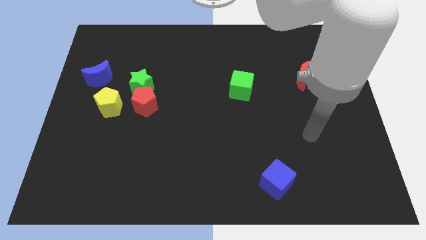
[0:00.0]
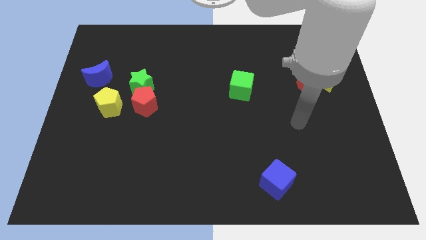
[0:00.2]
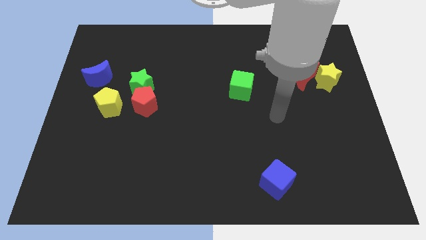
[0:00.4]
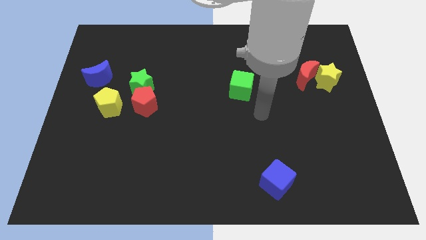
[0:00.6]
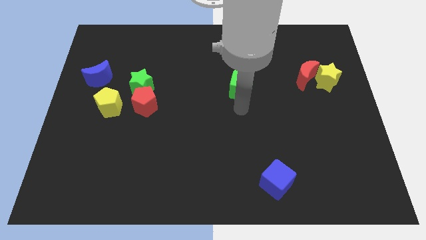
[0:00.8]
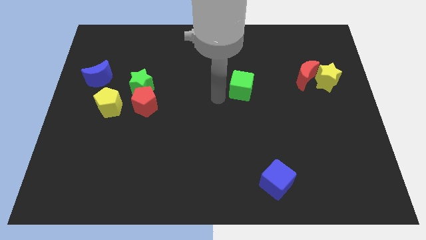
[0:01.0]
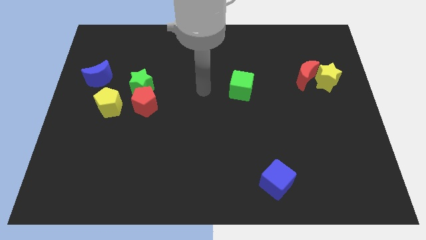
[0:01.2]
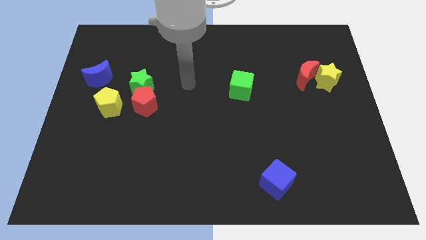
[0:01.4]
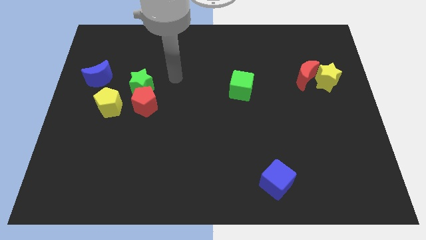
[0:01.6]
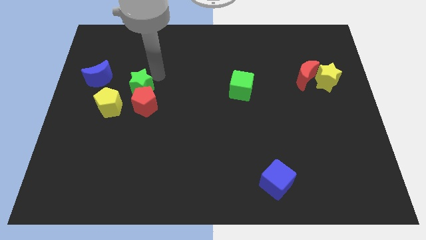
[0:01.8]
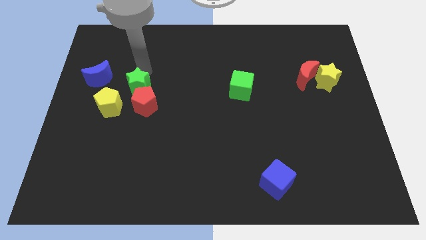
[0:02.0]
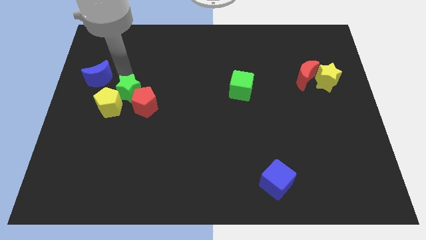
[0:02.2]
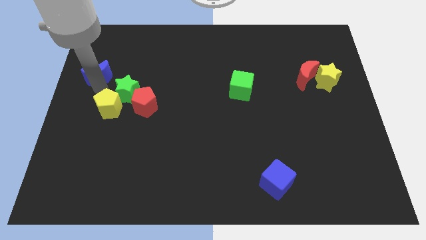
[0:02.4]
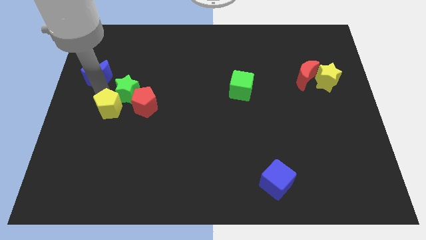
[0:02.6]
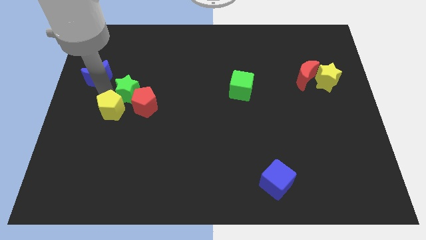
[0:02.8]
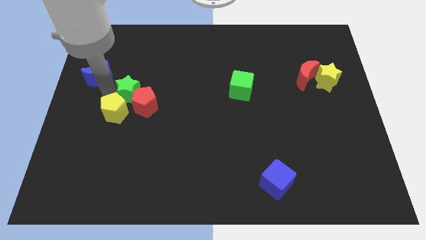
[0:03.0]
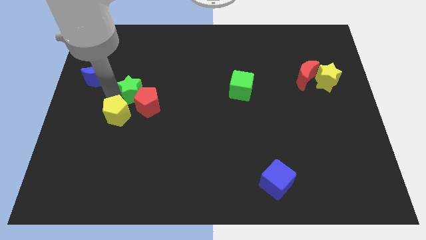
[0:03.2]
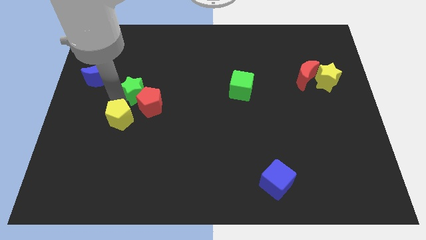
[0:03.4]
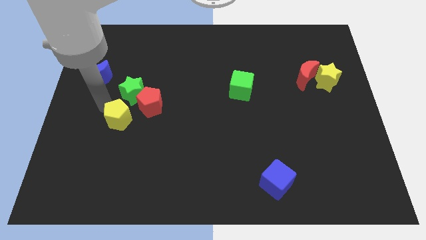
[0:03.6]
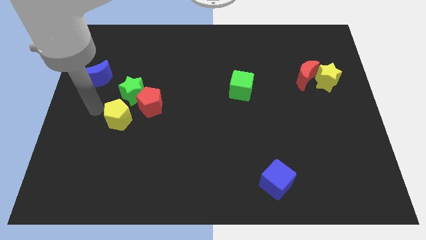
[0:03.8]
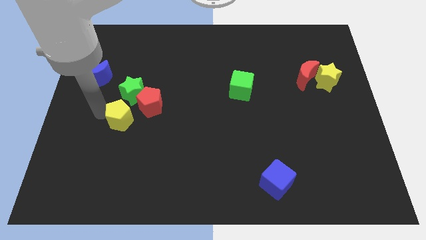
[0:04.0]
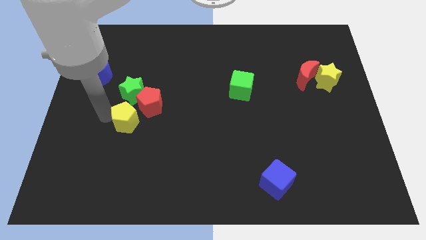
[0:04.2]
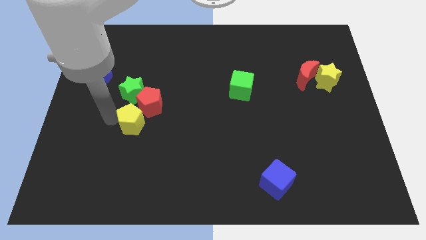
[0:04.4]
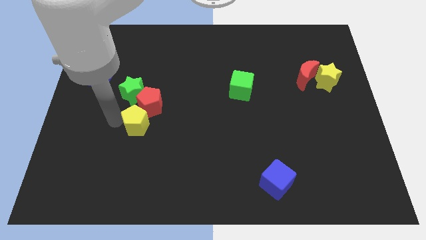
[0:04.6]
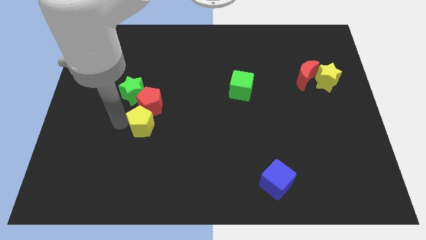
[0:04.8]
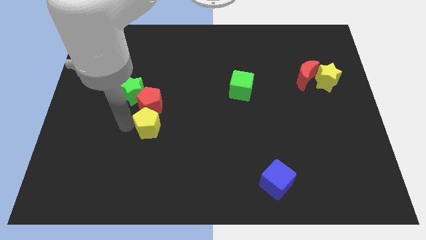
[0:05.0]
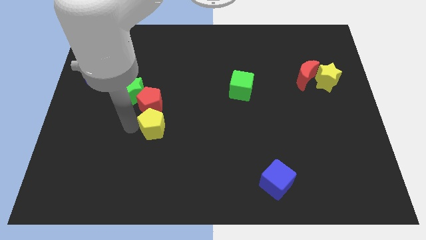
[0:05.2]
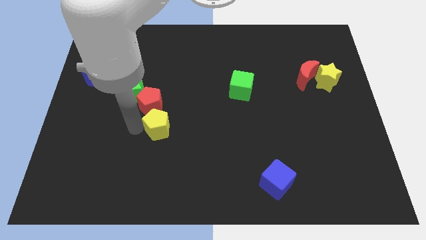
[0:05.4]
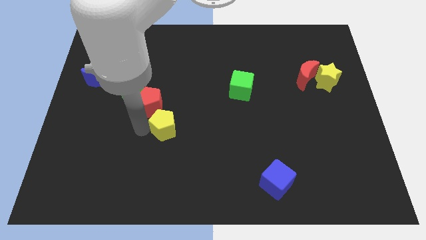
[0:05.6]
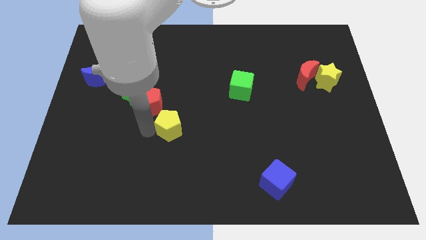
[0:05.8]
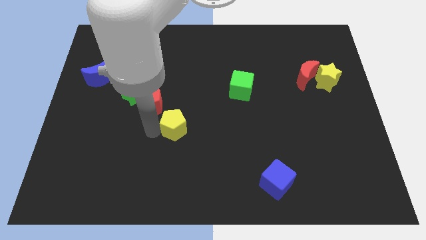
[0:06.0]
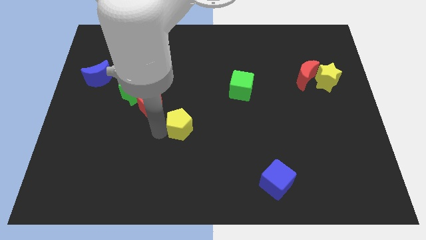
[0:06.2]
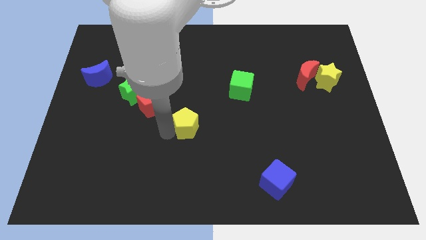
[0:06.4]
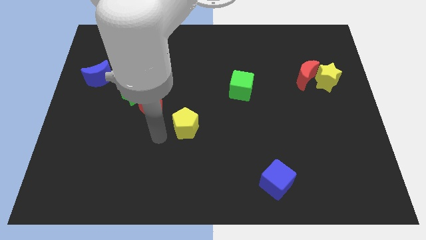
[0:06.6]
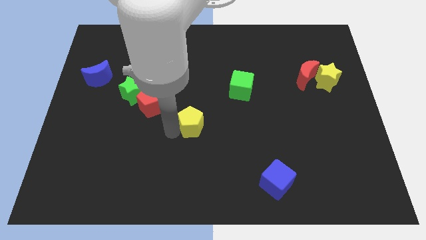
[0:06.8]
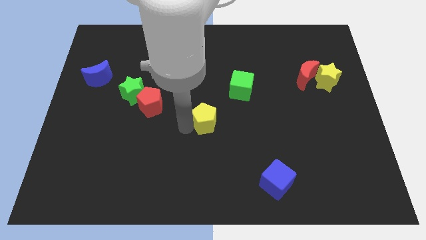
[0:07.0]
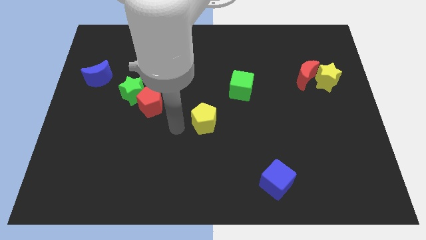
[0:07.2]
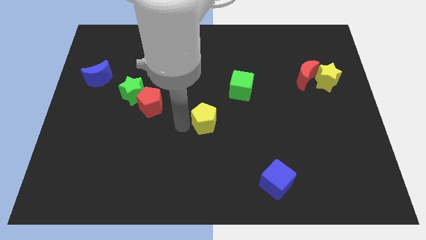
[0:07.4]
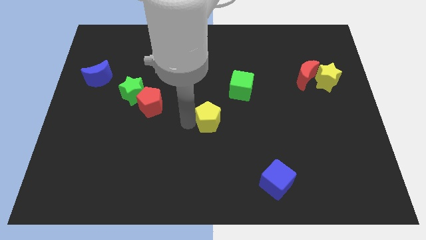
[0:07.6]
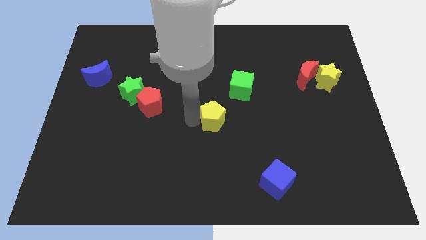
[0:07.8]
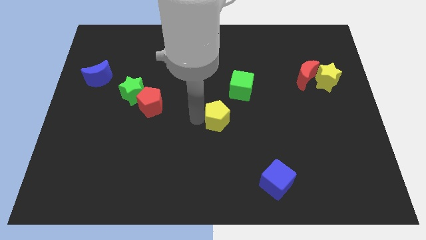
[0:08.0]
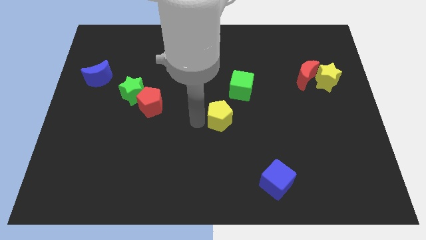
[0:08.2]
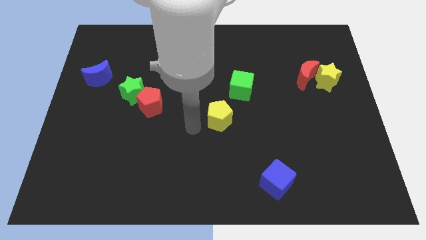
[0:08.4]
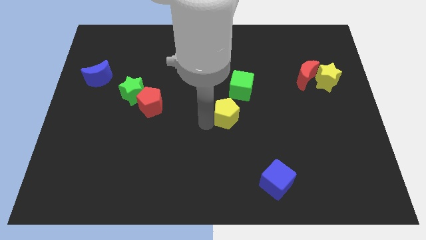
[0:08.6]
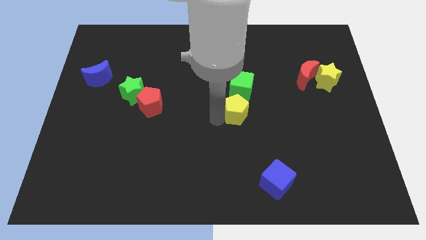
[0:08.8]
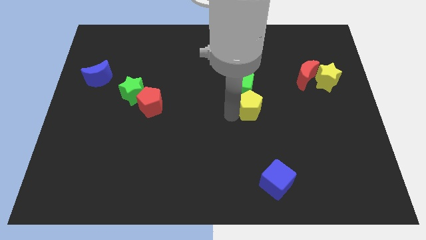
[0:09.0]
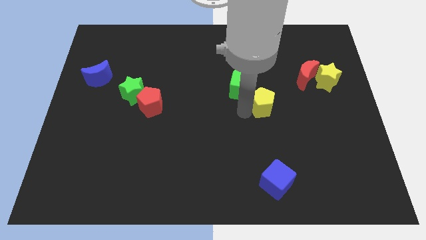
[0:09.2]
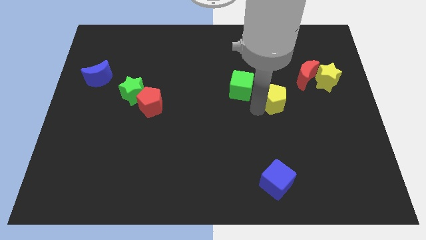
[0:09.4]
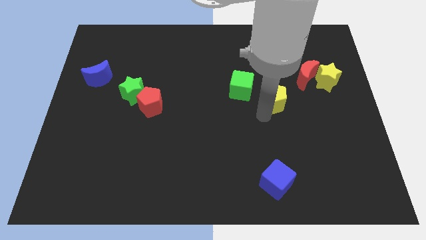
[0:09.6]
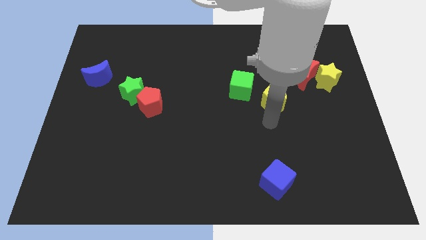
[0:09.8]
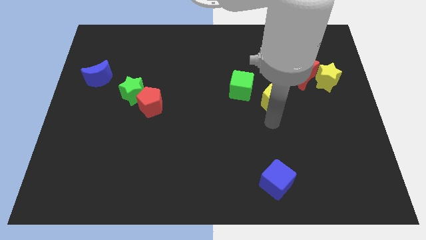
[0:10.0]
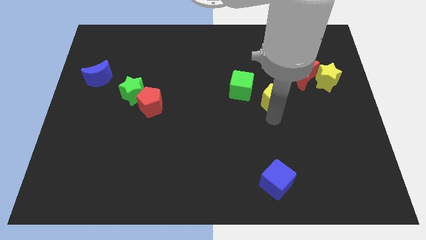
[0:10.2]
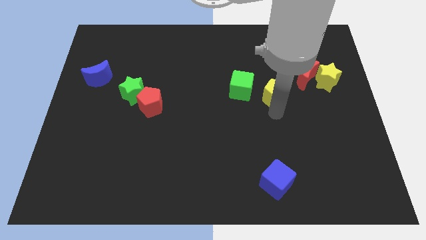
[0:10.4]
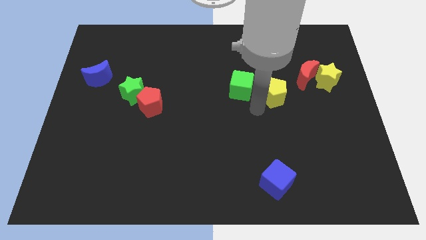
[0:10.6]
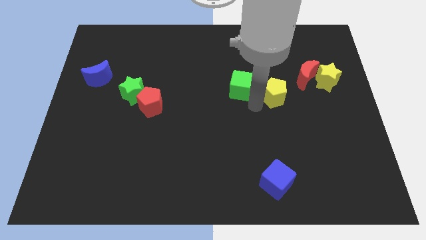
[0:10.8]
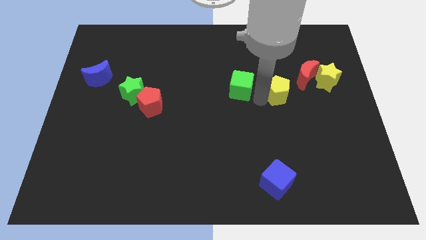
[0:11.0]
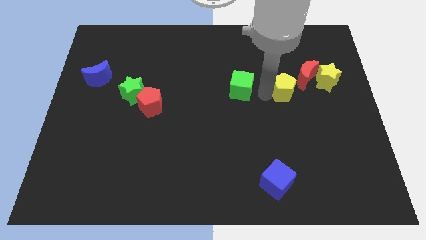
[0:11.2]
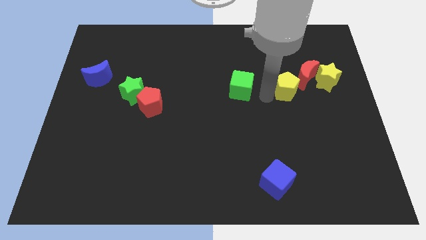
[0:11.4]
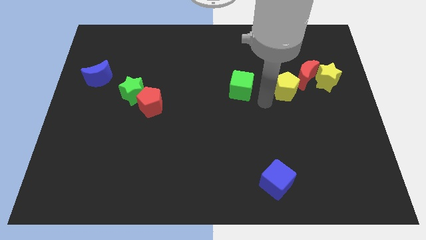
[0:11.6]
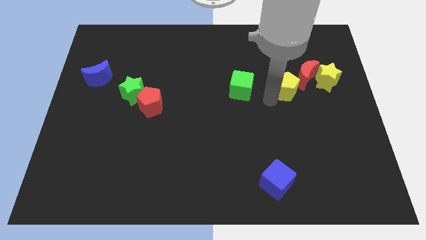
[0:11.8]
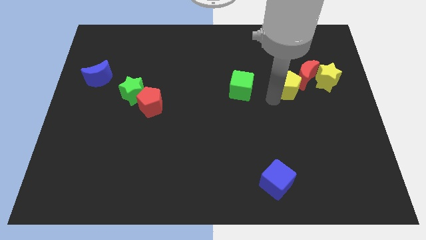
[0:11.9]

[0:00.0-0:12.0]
put the yellow pentagon towards the red moon

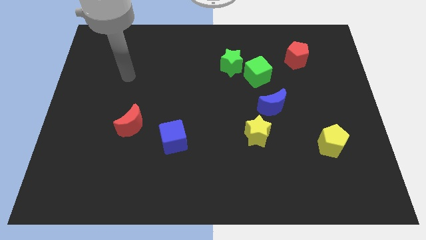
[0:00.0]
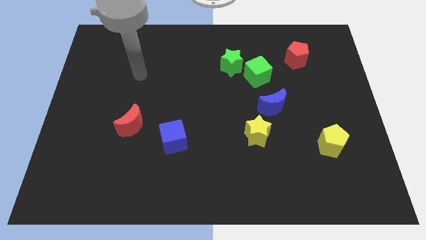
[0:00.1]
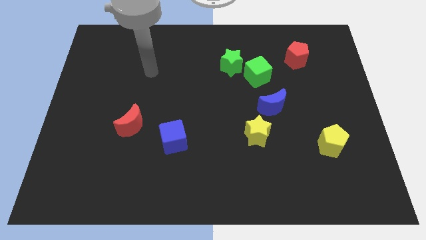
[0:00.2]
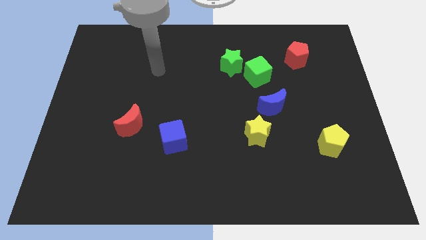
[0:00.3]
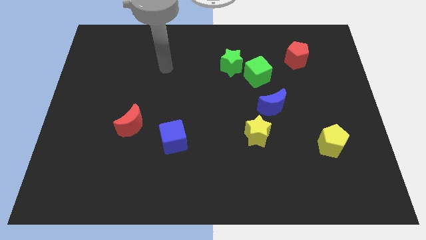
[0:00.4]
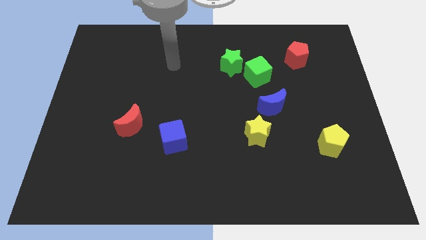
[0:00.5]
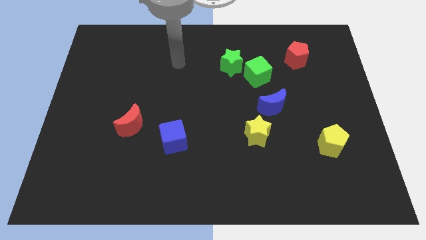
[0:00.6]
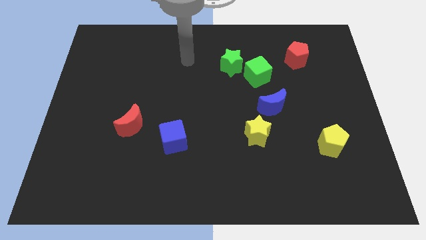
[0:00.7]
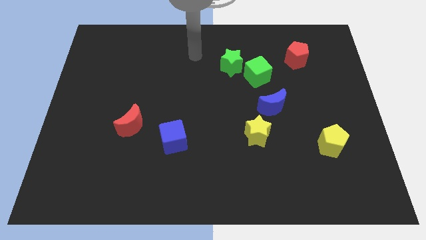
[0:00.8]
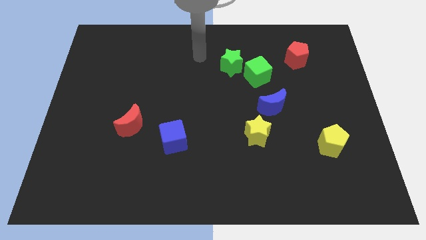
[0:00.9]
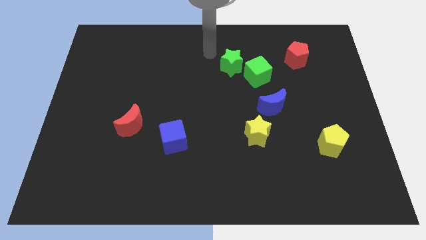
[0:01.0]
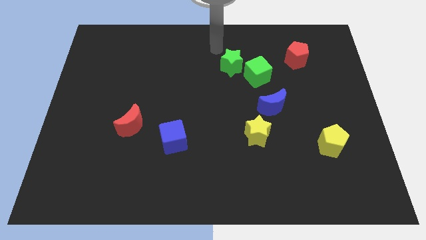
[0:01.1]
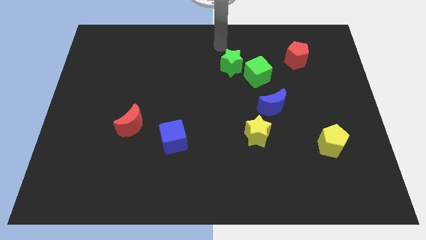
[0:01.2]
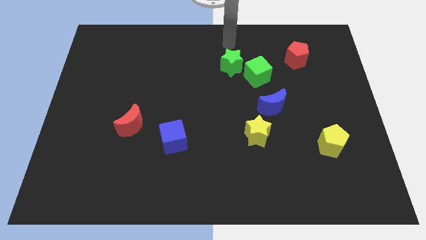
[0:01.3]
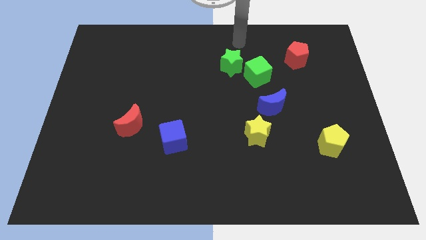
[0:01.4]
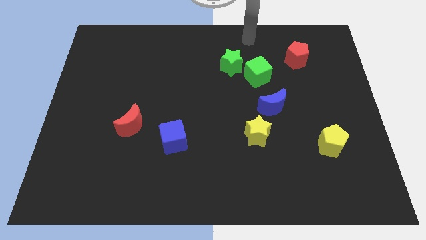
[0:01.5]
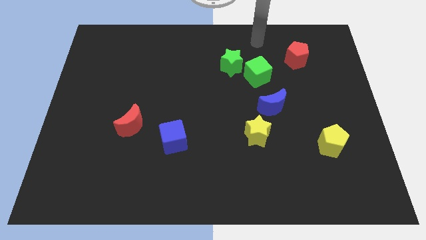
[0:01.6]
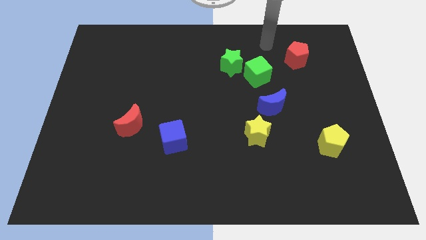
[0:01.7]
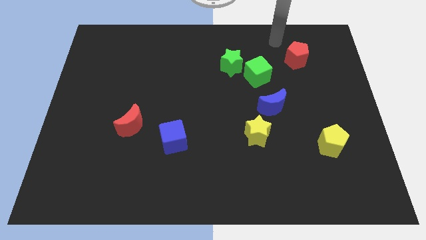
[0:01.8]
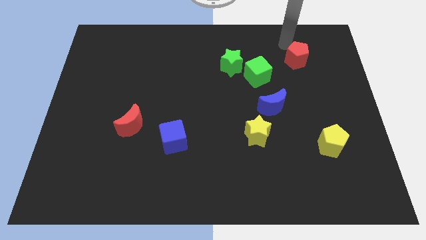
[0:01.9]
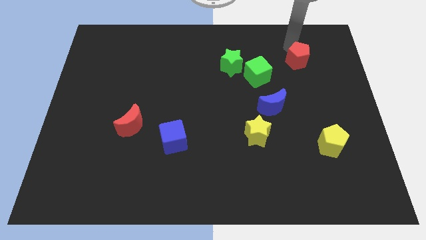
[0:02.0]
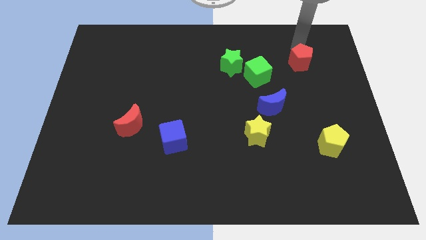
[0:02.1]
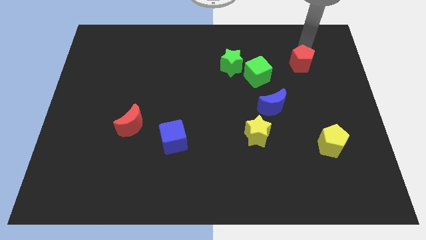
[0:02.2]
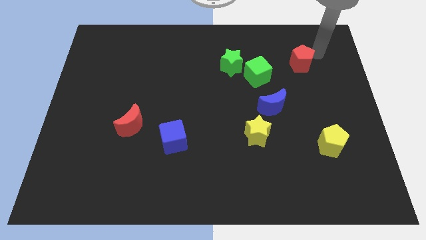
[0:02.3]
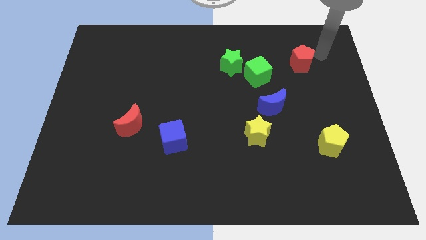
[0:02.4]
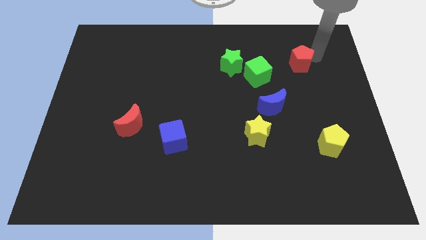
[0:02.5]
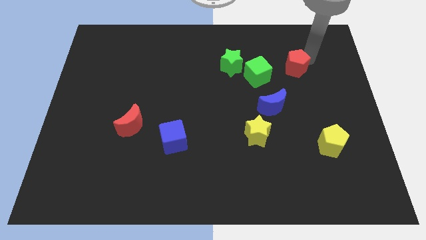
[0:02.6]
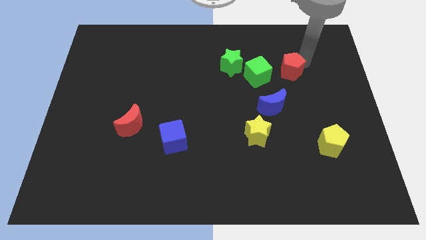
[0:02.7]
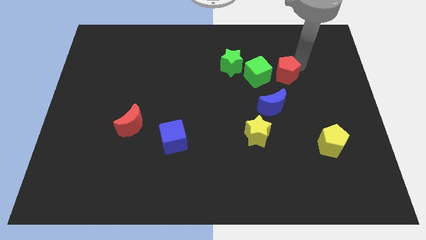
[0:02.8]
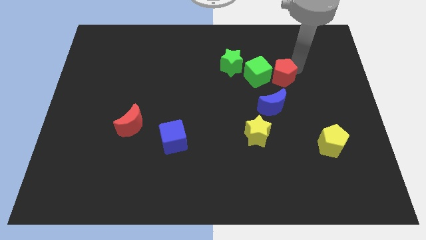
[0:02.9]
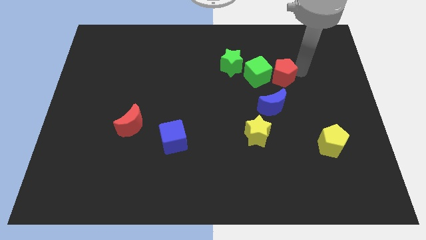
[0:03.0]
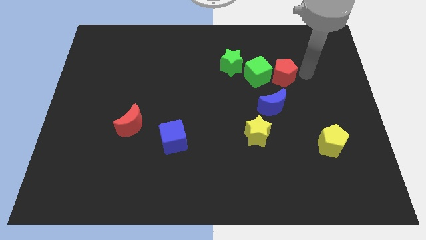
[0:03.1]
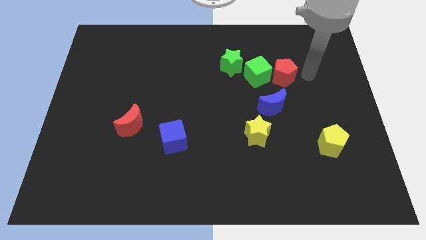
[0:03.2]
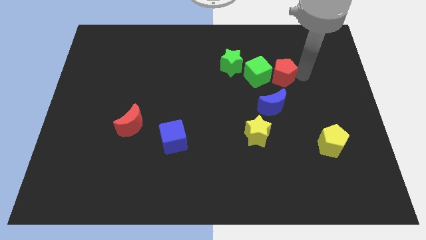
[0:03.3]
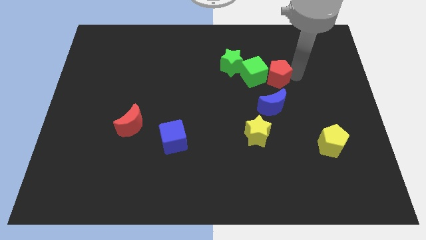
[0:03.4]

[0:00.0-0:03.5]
put the red pentagon next to the green cube
